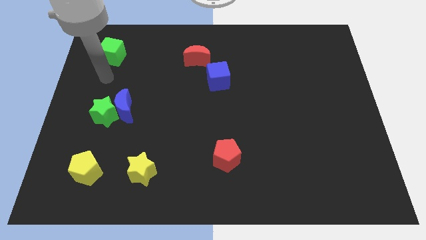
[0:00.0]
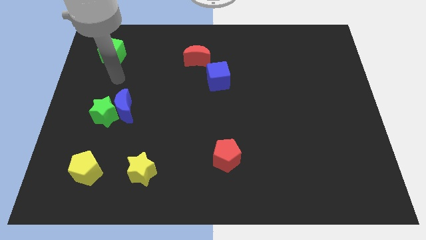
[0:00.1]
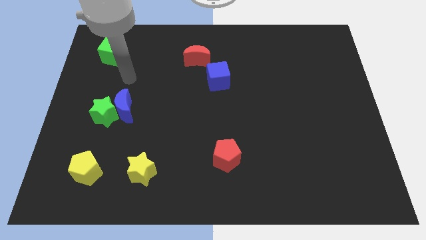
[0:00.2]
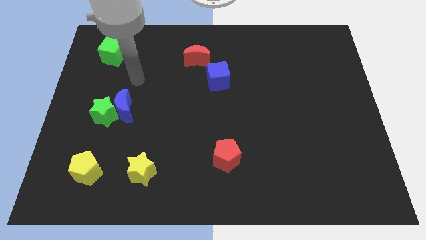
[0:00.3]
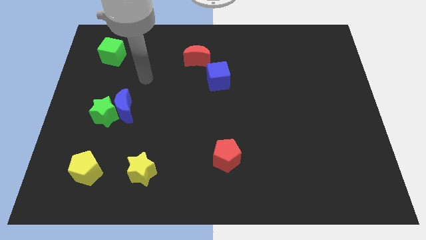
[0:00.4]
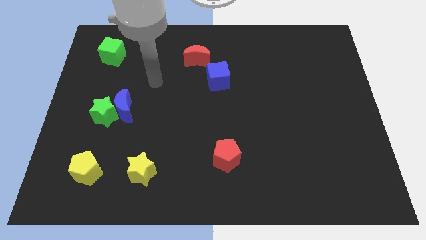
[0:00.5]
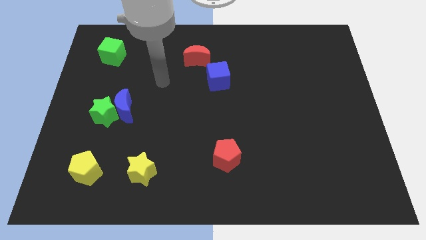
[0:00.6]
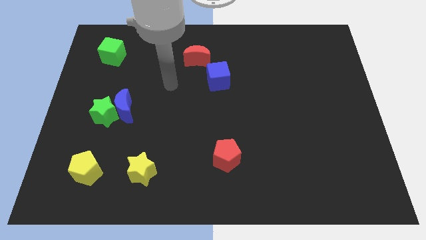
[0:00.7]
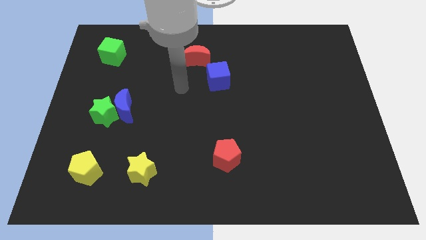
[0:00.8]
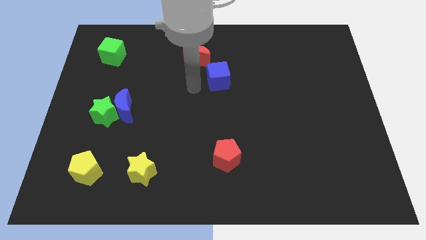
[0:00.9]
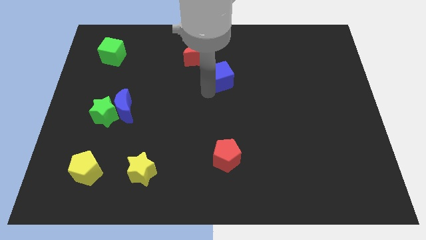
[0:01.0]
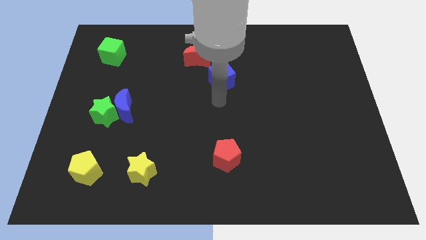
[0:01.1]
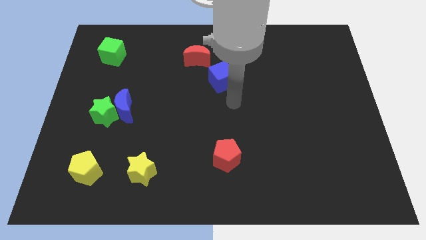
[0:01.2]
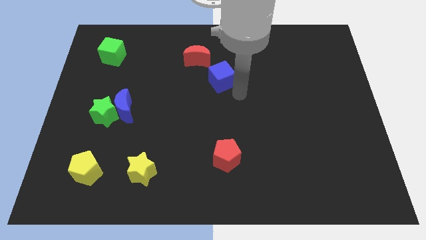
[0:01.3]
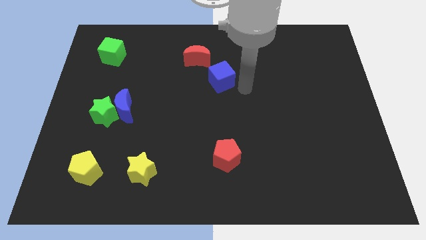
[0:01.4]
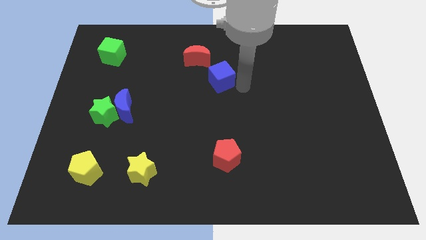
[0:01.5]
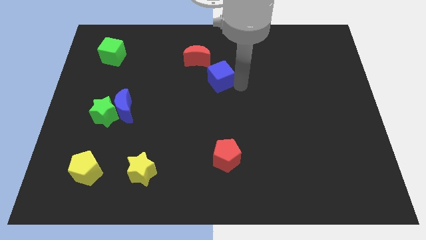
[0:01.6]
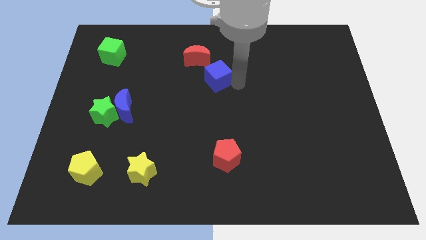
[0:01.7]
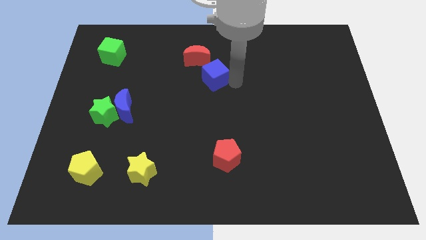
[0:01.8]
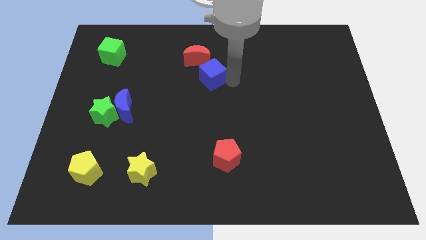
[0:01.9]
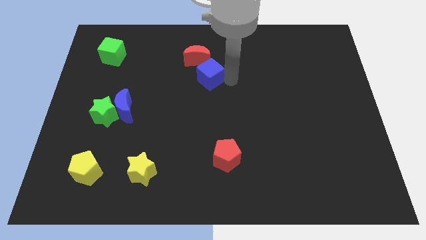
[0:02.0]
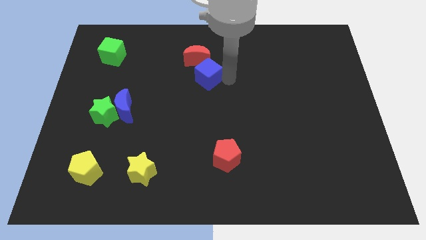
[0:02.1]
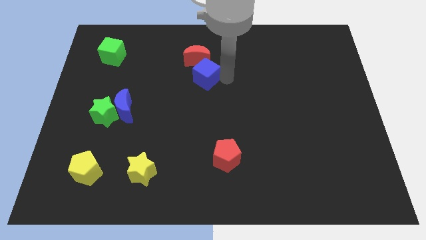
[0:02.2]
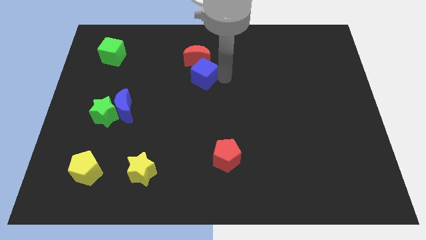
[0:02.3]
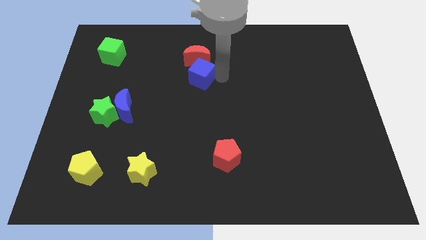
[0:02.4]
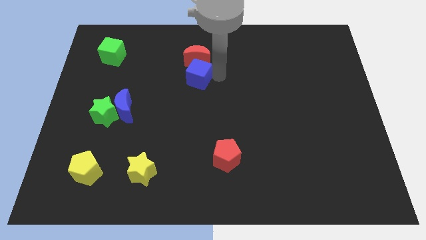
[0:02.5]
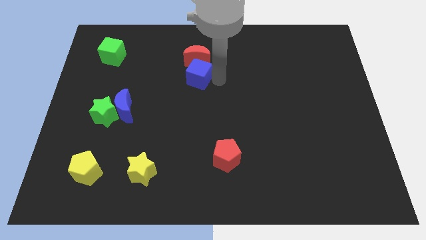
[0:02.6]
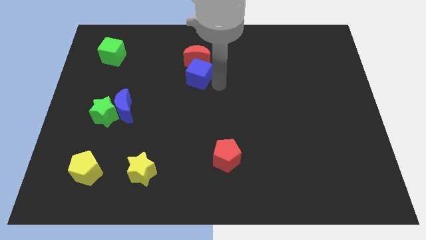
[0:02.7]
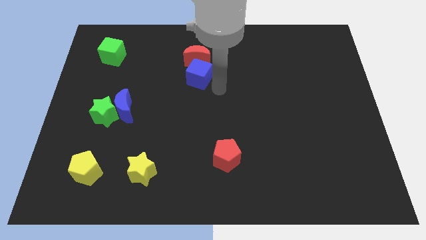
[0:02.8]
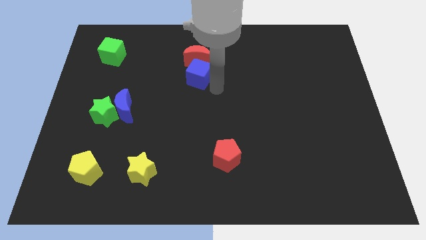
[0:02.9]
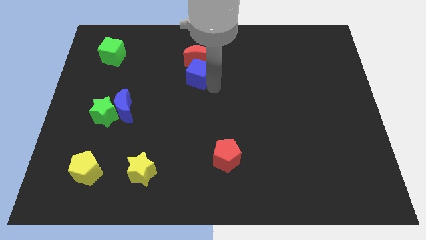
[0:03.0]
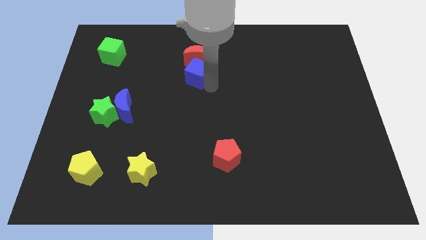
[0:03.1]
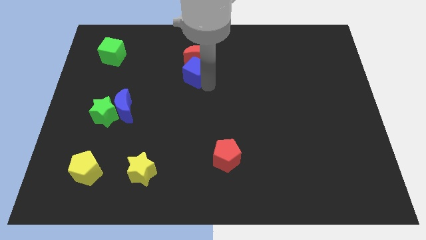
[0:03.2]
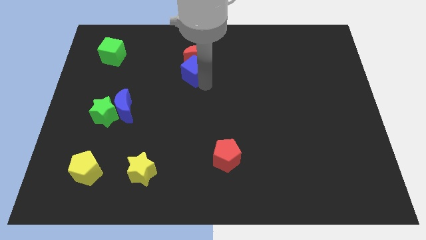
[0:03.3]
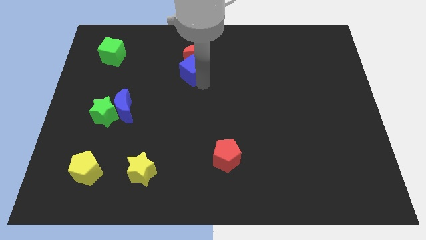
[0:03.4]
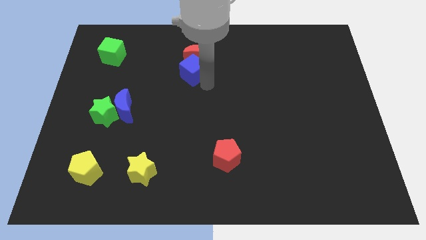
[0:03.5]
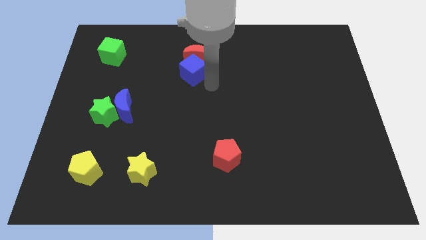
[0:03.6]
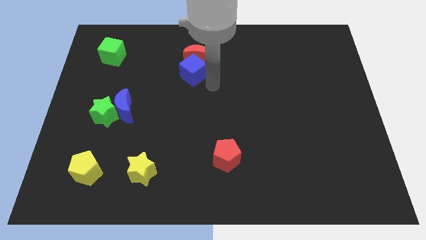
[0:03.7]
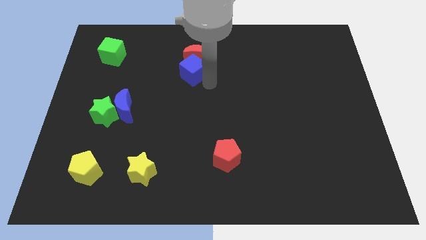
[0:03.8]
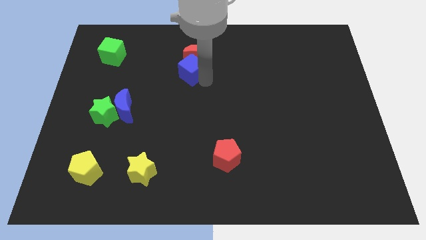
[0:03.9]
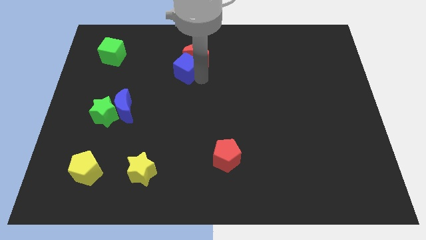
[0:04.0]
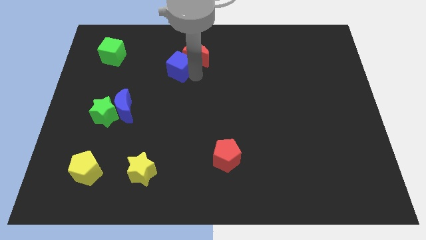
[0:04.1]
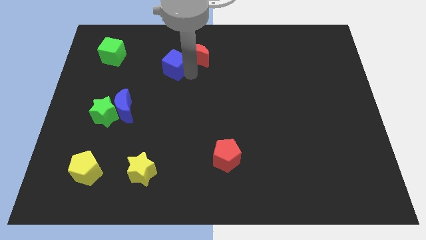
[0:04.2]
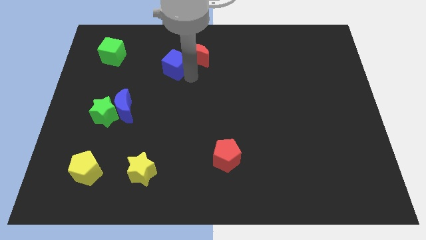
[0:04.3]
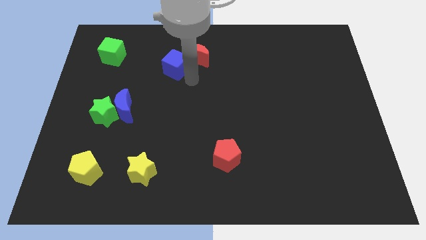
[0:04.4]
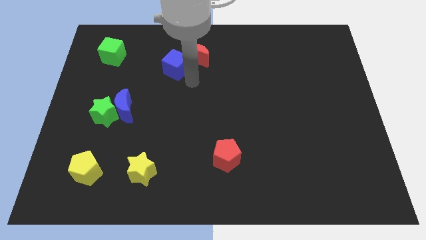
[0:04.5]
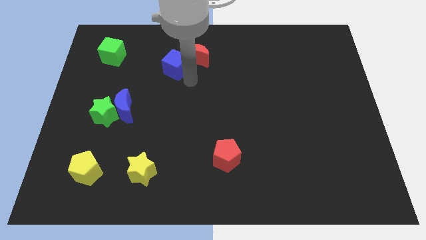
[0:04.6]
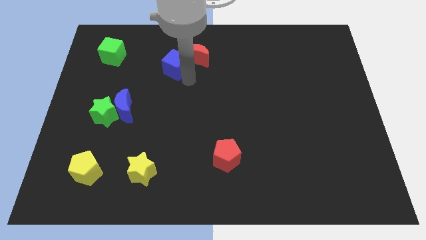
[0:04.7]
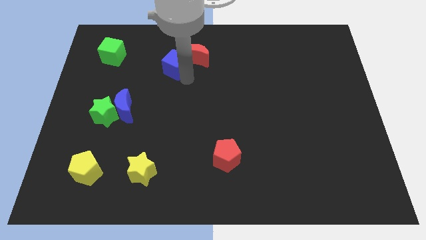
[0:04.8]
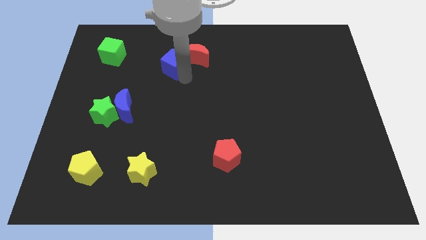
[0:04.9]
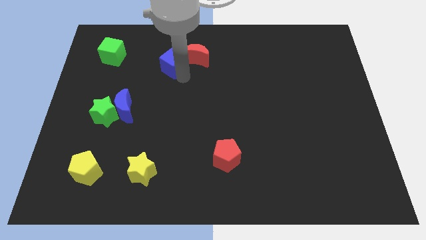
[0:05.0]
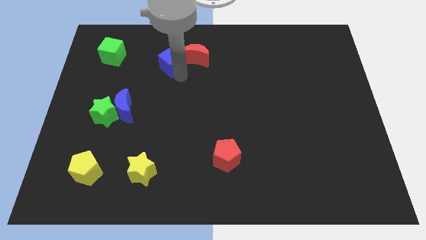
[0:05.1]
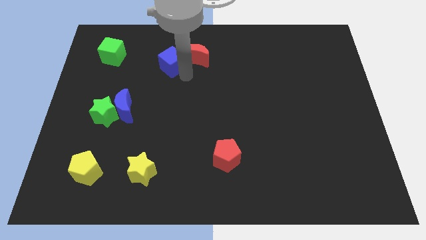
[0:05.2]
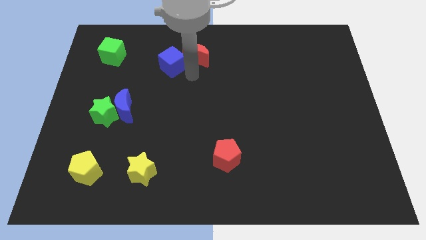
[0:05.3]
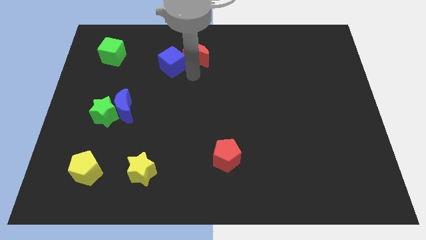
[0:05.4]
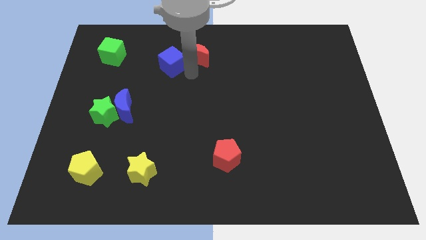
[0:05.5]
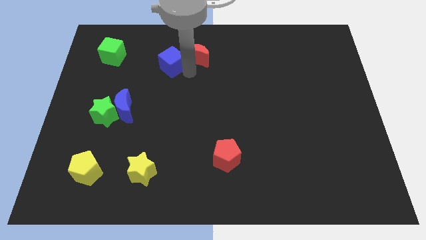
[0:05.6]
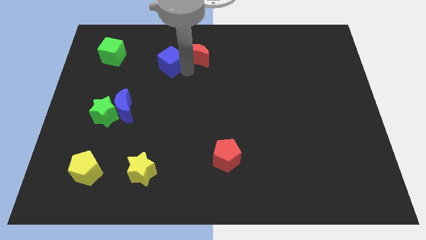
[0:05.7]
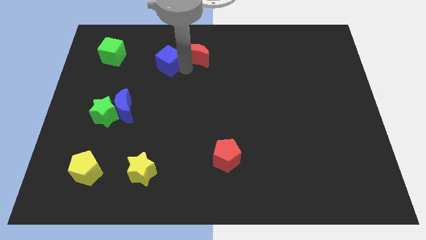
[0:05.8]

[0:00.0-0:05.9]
move the blue cube just right of the green cube
